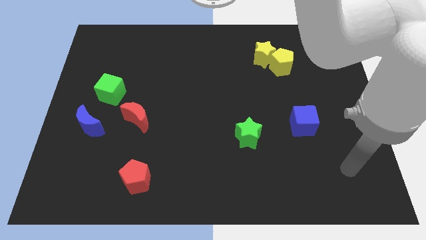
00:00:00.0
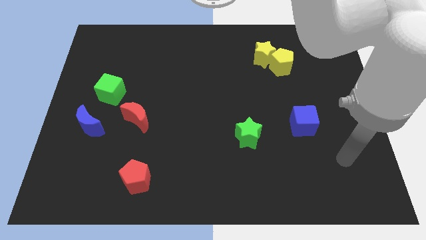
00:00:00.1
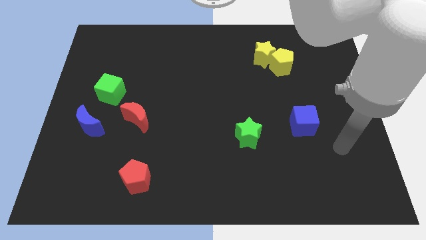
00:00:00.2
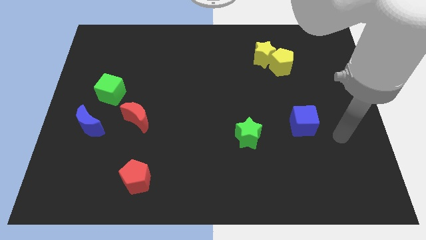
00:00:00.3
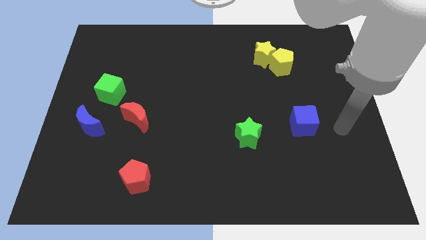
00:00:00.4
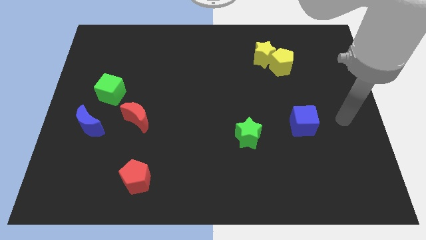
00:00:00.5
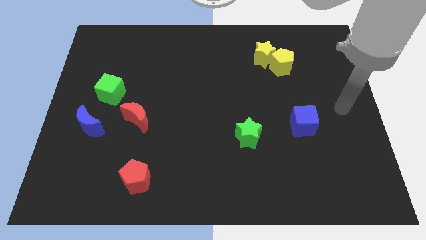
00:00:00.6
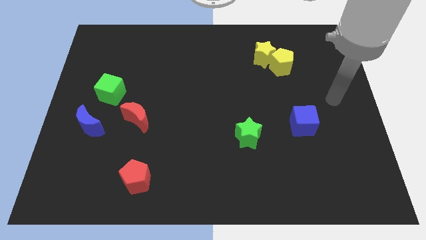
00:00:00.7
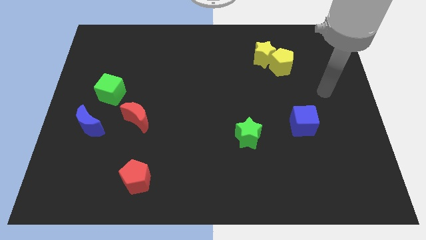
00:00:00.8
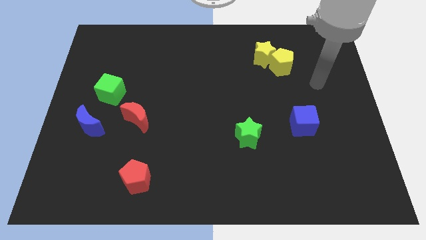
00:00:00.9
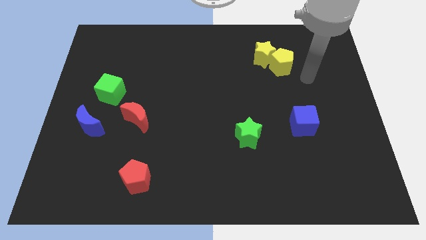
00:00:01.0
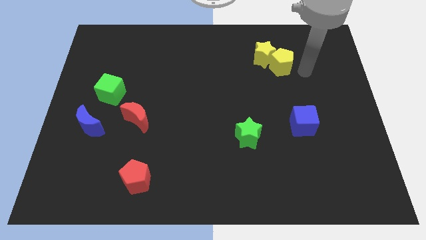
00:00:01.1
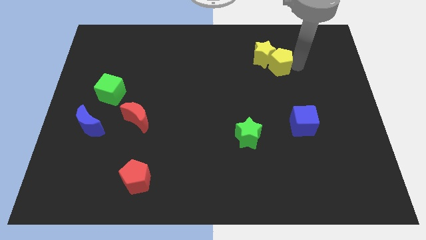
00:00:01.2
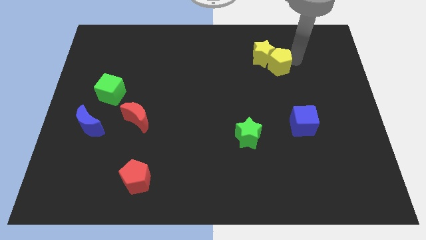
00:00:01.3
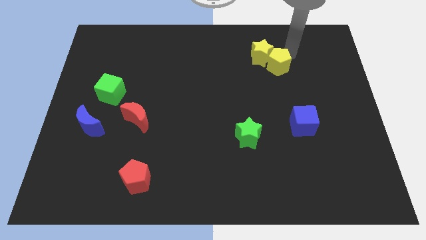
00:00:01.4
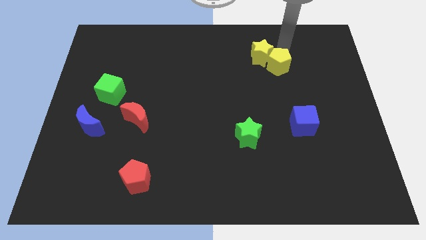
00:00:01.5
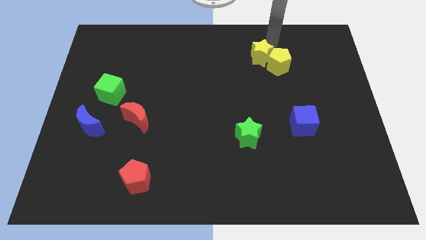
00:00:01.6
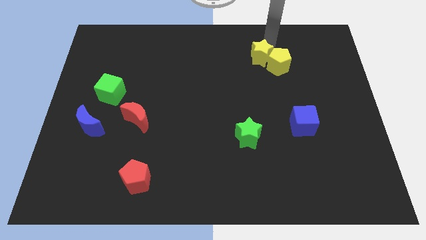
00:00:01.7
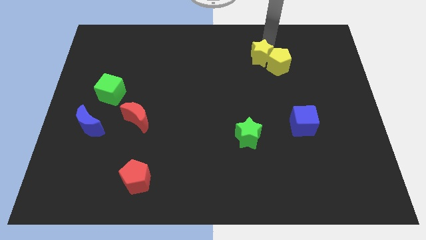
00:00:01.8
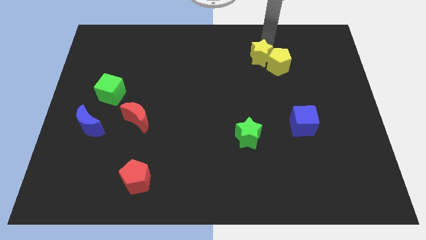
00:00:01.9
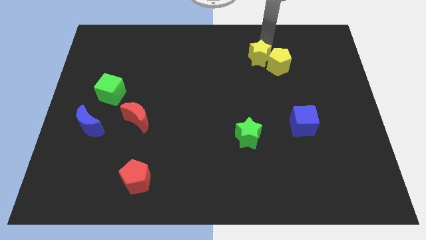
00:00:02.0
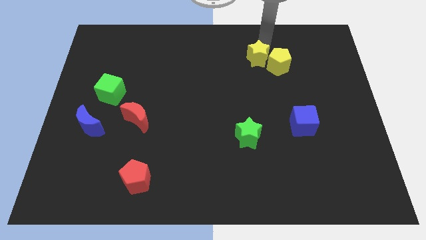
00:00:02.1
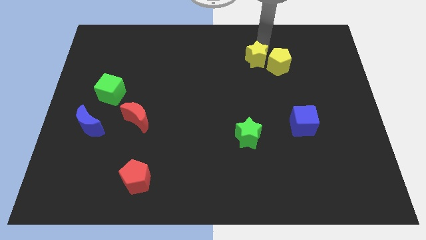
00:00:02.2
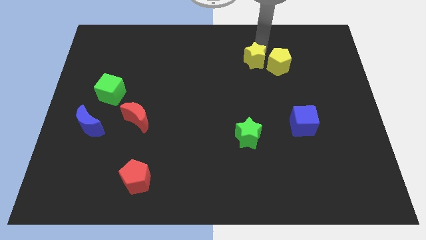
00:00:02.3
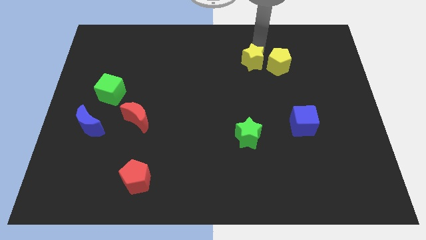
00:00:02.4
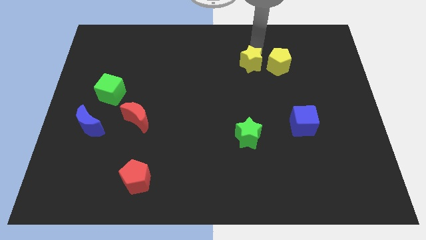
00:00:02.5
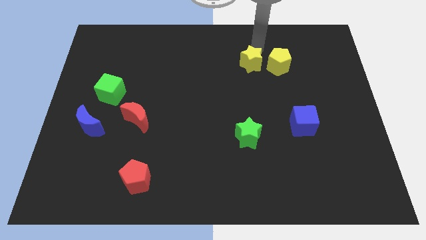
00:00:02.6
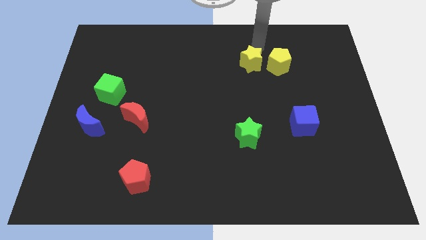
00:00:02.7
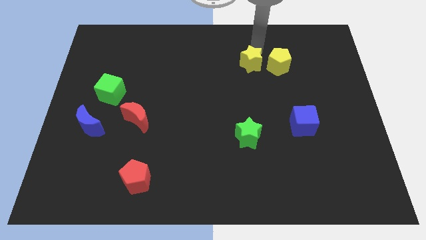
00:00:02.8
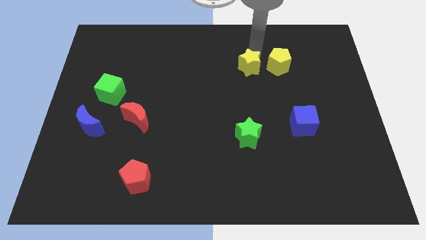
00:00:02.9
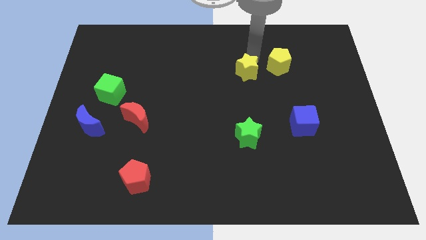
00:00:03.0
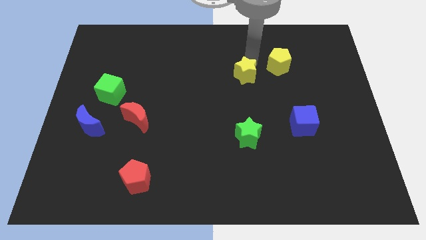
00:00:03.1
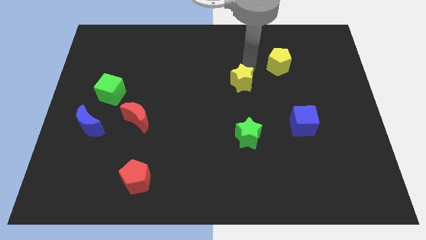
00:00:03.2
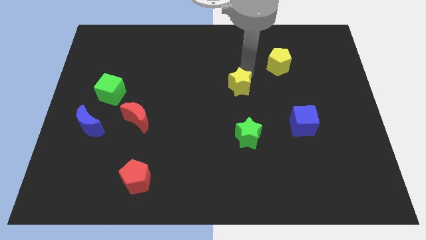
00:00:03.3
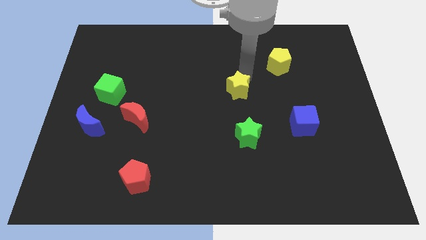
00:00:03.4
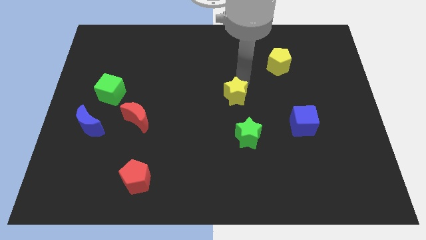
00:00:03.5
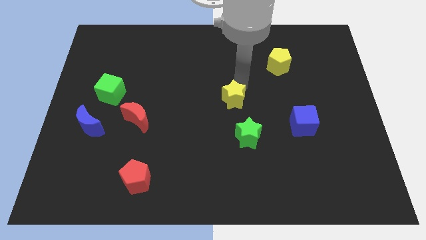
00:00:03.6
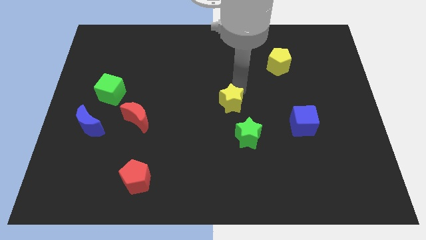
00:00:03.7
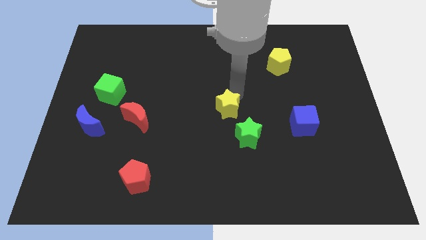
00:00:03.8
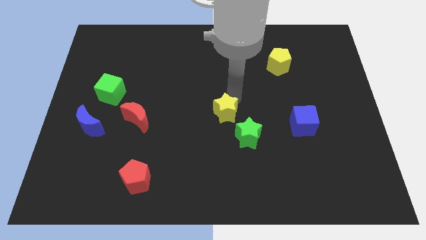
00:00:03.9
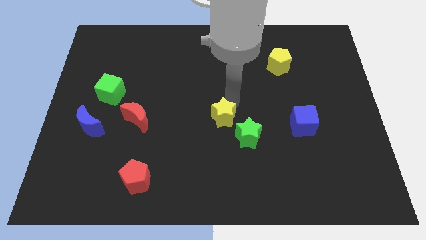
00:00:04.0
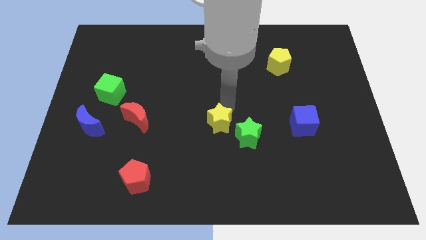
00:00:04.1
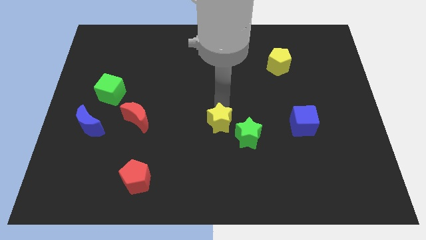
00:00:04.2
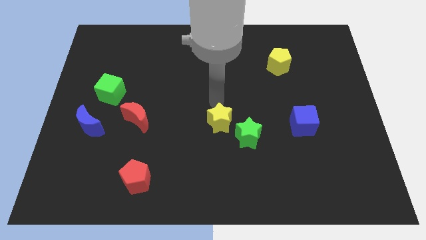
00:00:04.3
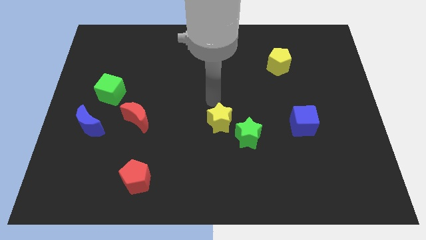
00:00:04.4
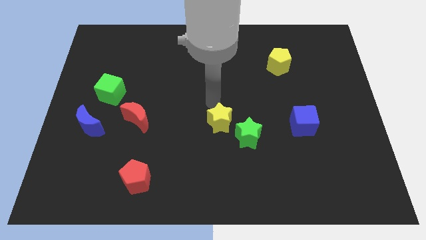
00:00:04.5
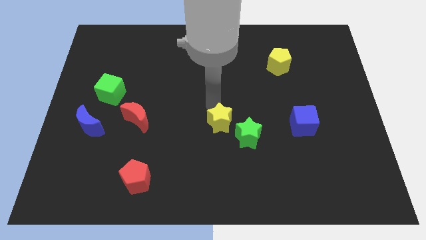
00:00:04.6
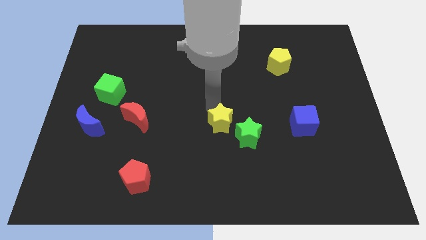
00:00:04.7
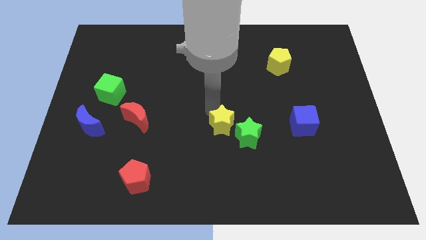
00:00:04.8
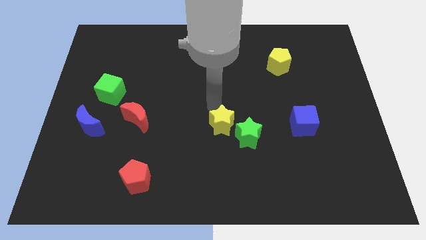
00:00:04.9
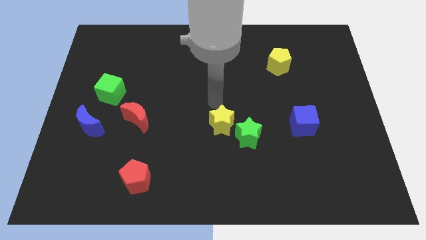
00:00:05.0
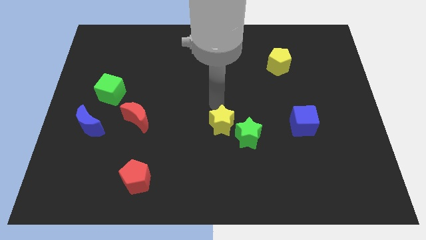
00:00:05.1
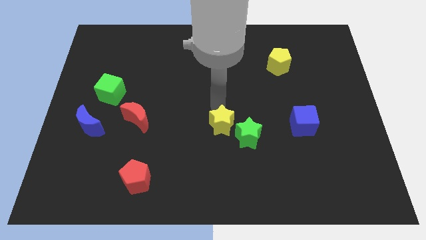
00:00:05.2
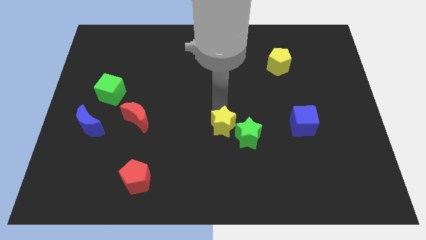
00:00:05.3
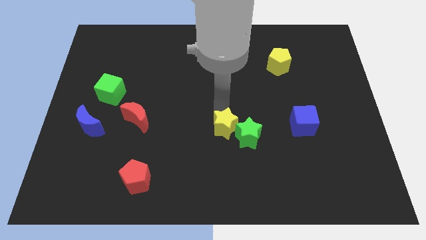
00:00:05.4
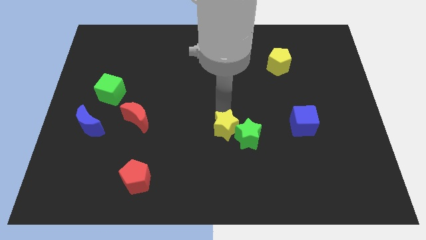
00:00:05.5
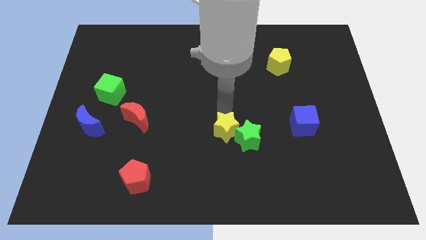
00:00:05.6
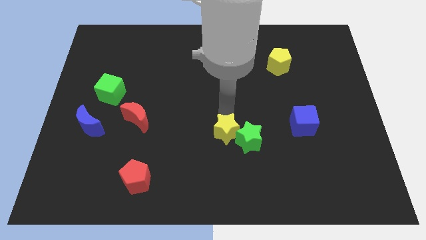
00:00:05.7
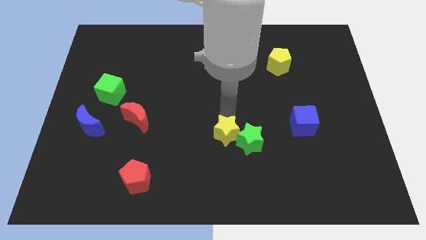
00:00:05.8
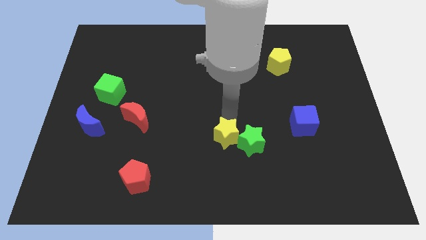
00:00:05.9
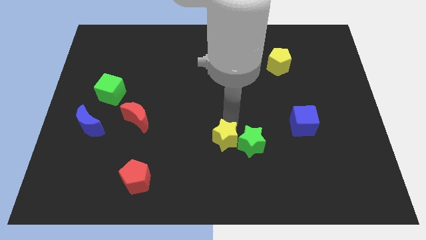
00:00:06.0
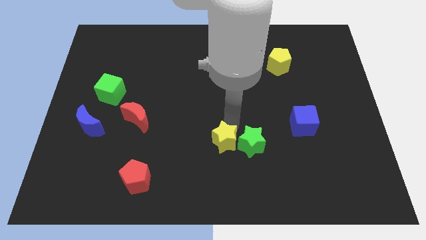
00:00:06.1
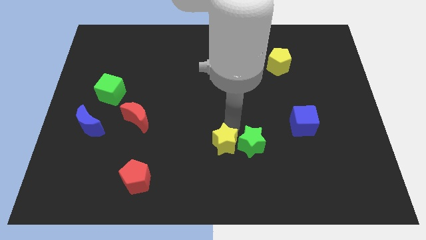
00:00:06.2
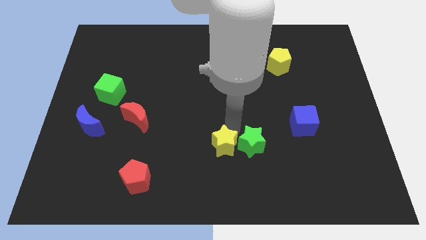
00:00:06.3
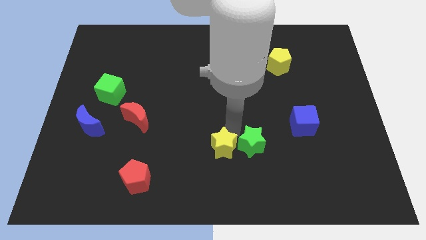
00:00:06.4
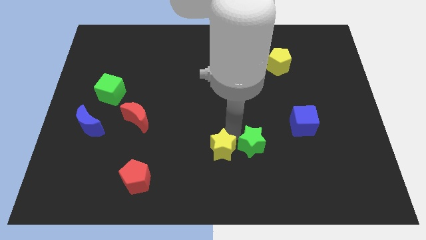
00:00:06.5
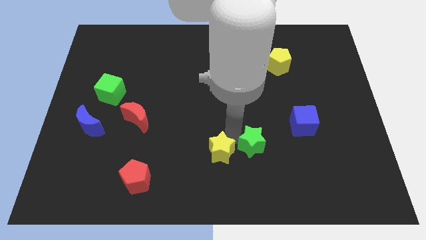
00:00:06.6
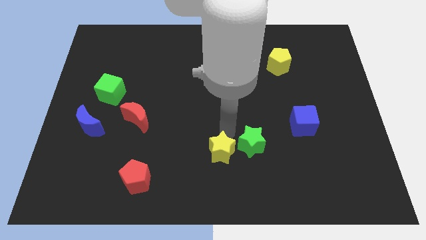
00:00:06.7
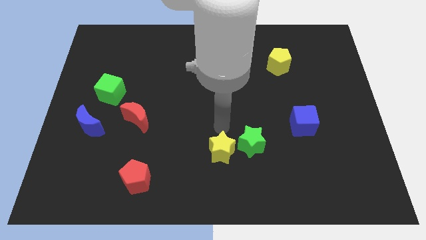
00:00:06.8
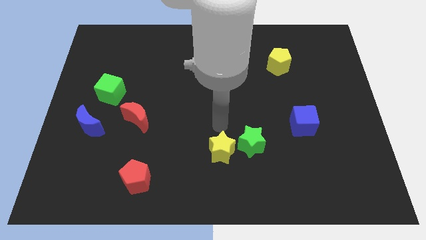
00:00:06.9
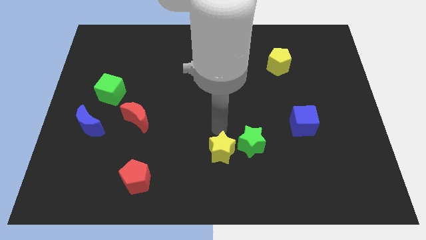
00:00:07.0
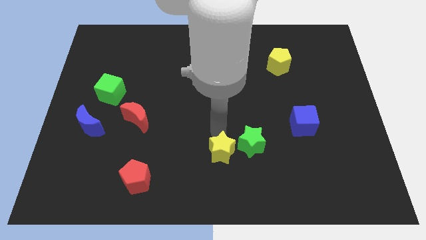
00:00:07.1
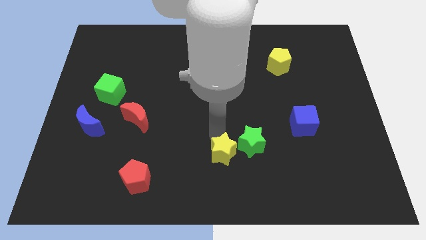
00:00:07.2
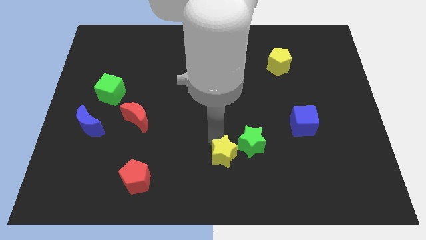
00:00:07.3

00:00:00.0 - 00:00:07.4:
push the yellow star to the bottom side
